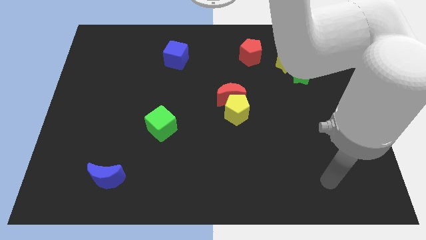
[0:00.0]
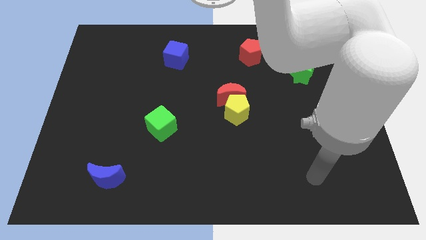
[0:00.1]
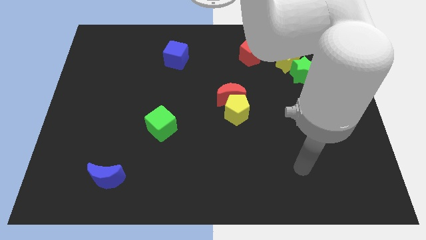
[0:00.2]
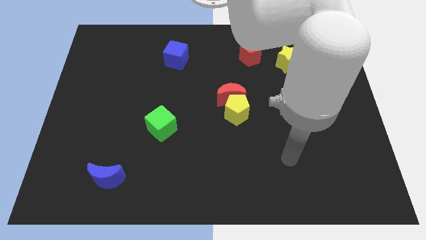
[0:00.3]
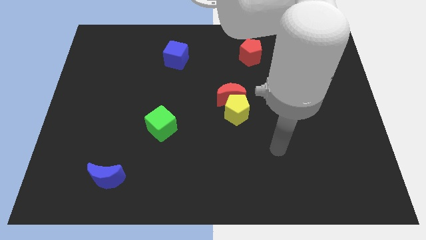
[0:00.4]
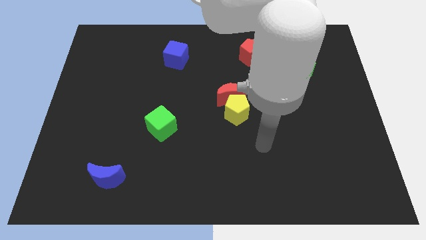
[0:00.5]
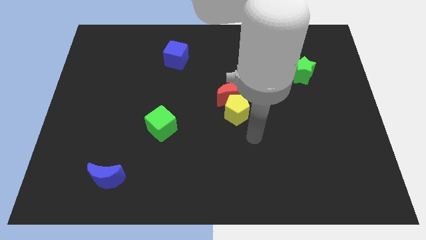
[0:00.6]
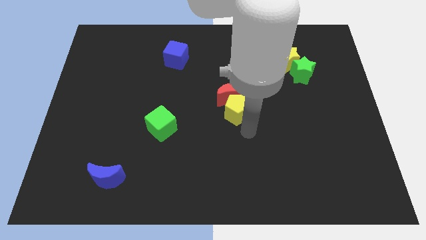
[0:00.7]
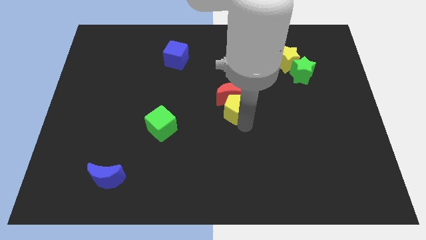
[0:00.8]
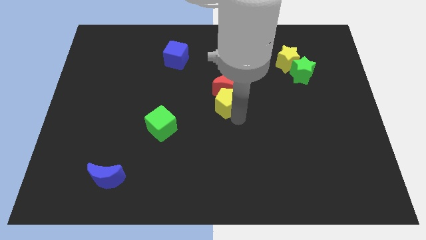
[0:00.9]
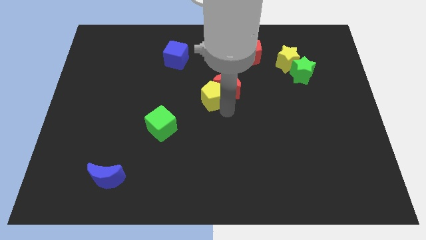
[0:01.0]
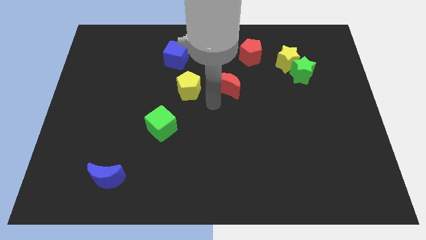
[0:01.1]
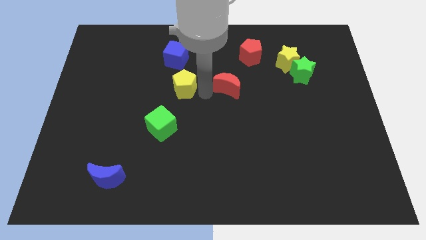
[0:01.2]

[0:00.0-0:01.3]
pull the red moon apart from the yellow pentagon

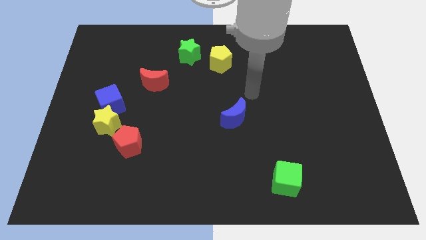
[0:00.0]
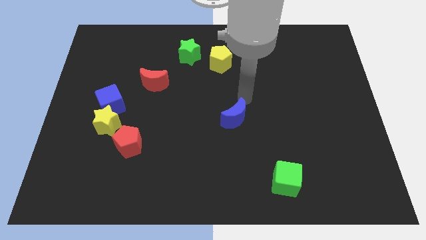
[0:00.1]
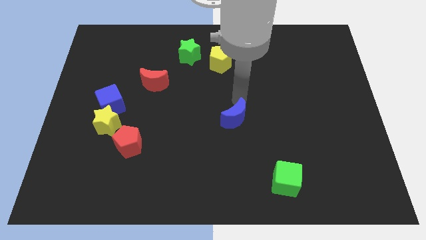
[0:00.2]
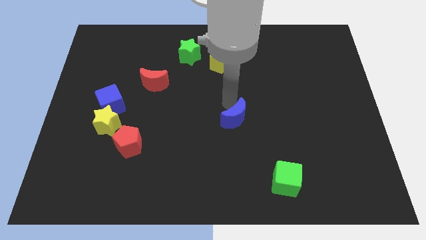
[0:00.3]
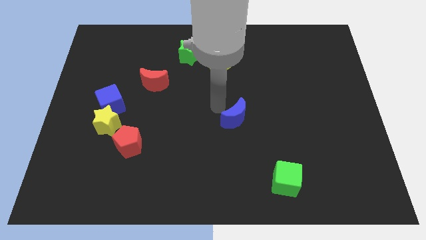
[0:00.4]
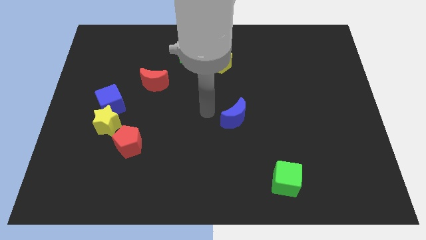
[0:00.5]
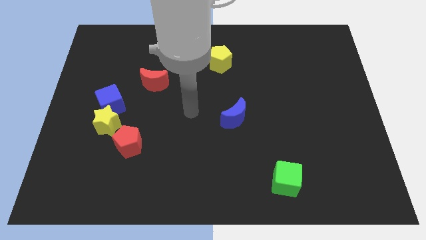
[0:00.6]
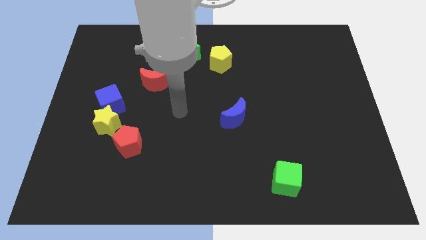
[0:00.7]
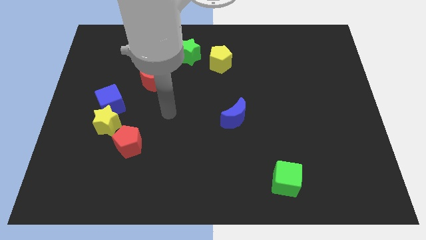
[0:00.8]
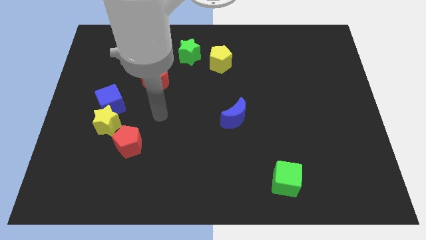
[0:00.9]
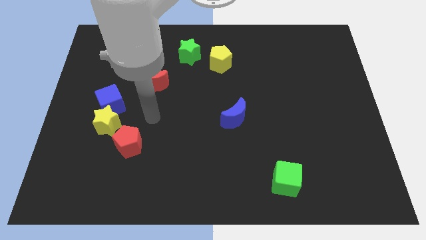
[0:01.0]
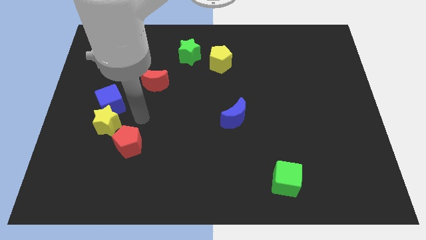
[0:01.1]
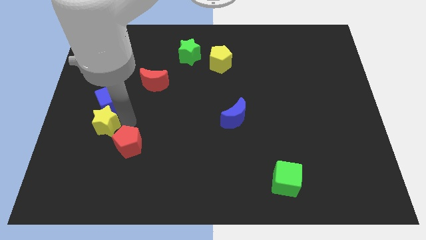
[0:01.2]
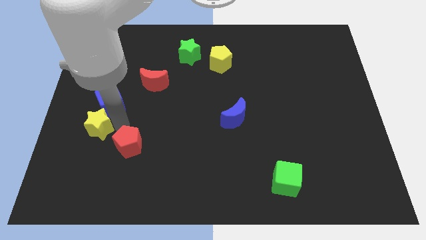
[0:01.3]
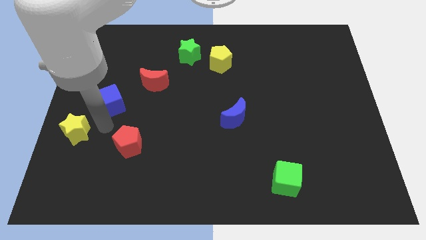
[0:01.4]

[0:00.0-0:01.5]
pull the blue cube apart from the yellow star

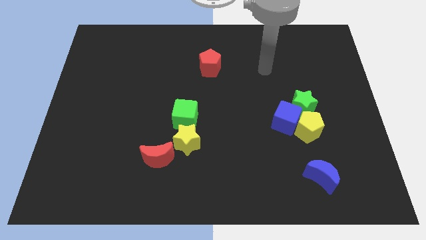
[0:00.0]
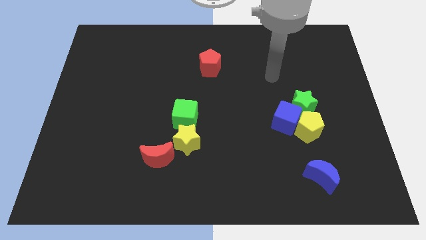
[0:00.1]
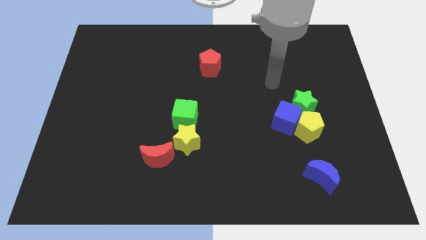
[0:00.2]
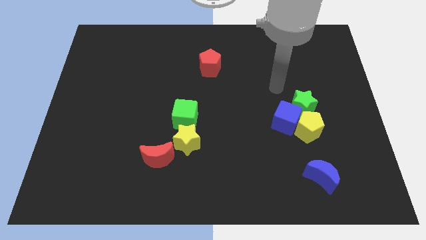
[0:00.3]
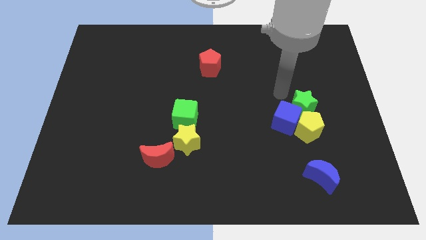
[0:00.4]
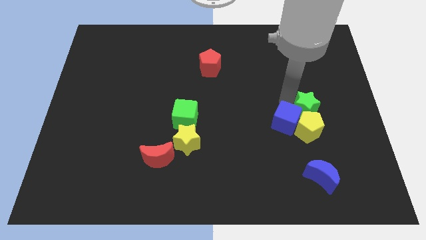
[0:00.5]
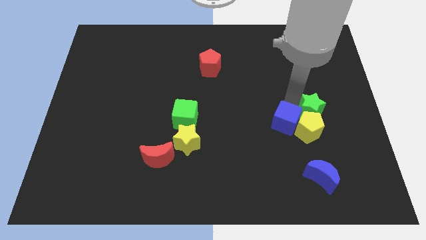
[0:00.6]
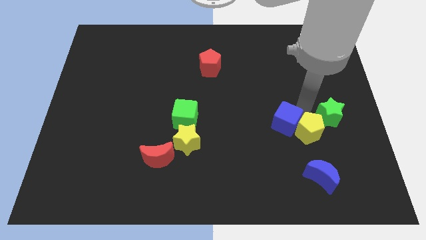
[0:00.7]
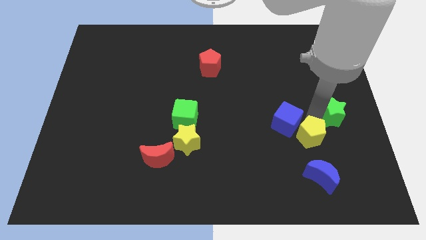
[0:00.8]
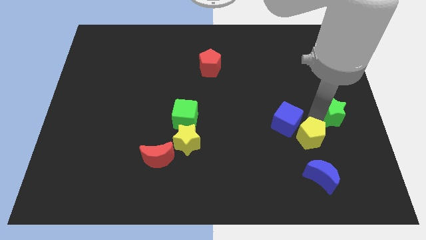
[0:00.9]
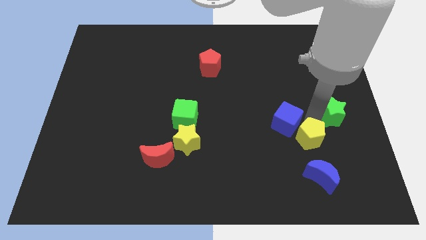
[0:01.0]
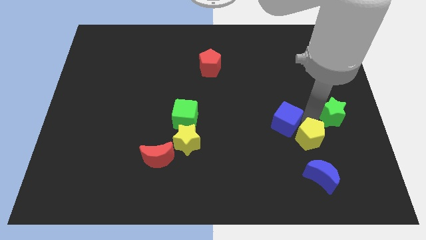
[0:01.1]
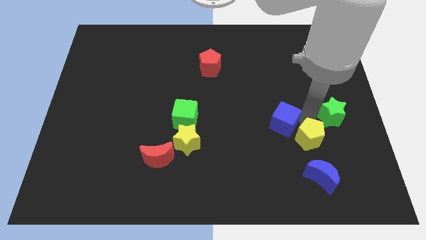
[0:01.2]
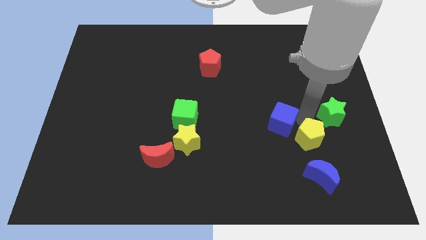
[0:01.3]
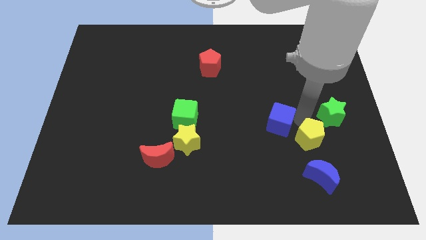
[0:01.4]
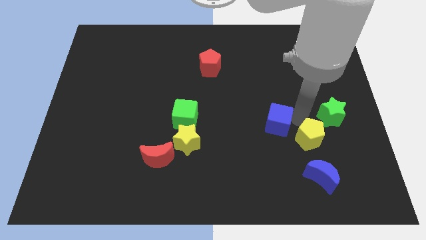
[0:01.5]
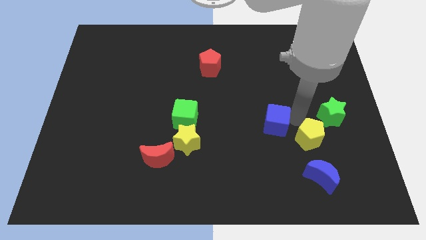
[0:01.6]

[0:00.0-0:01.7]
separate the blue cube from the yellow pentagon and green star

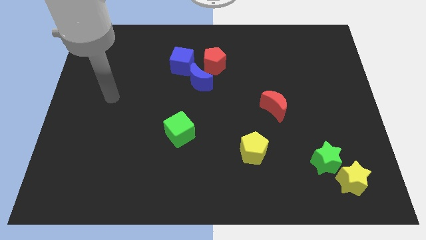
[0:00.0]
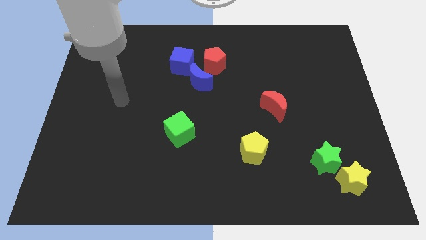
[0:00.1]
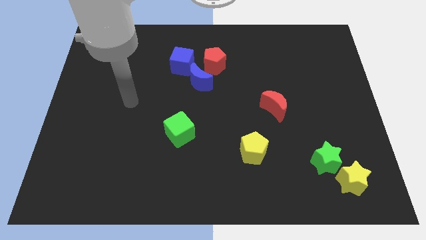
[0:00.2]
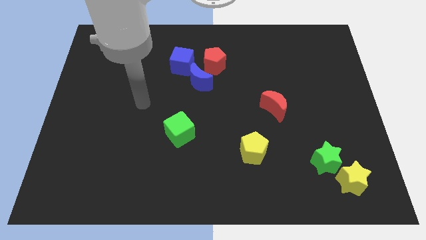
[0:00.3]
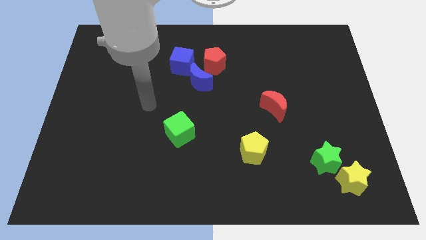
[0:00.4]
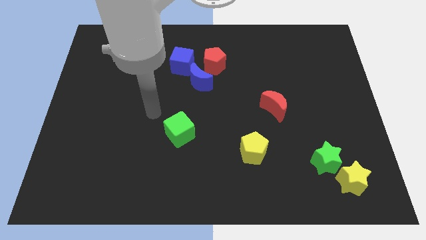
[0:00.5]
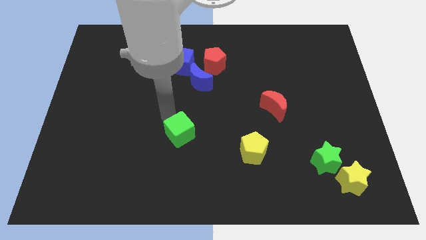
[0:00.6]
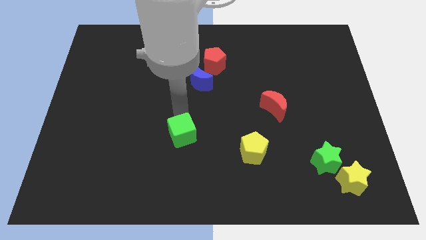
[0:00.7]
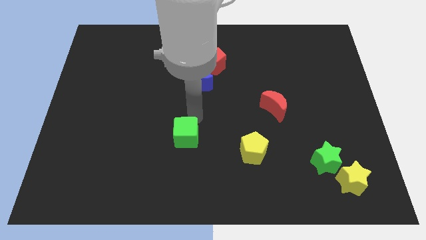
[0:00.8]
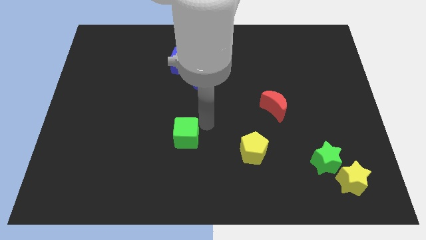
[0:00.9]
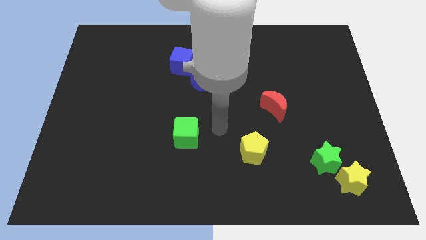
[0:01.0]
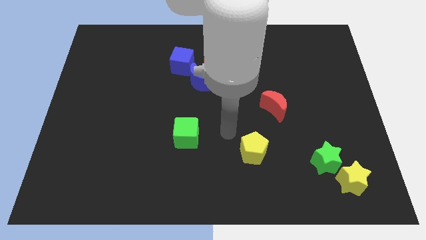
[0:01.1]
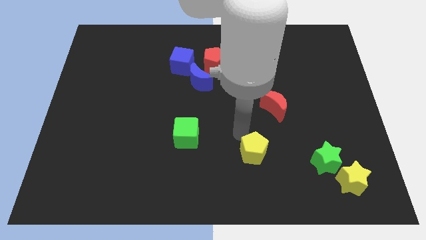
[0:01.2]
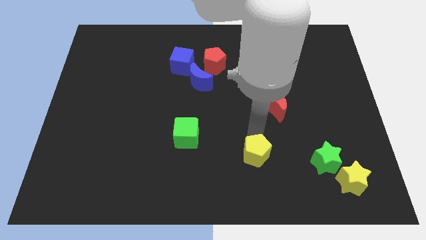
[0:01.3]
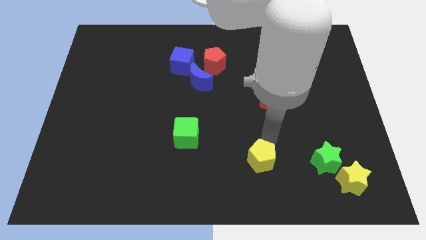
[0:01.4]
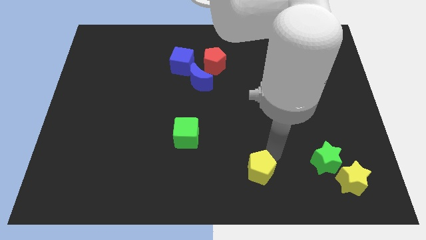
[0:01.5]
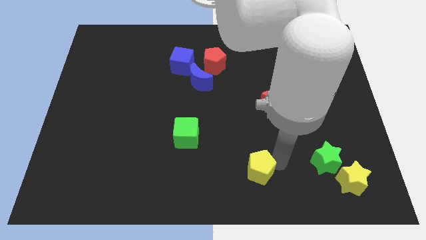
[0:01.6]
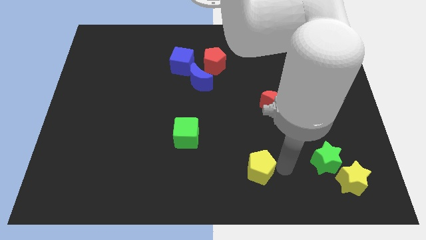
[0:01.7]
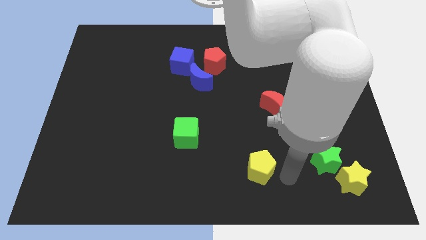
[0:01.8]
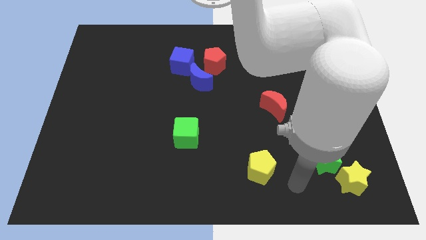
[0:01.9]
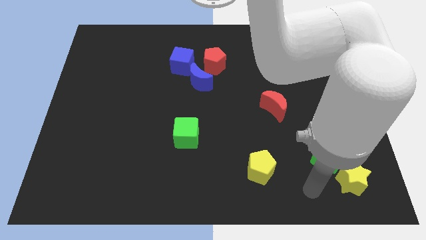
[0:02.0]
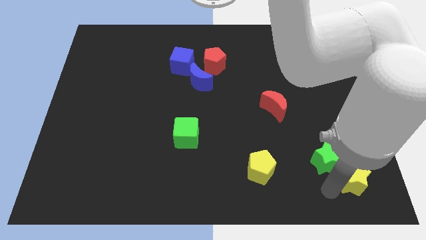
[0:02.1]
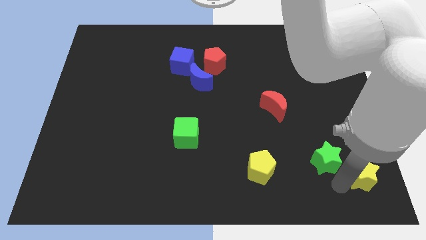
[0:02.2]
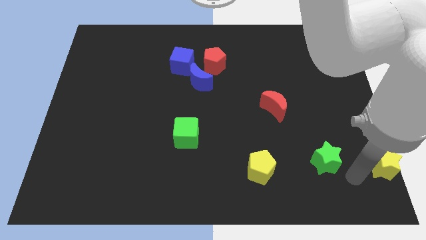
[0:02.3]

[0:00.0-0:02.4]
move the green star away from the yellow star

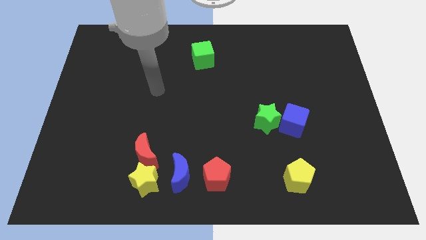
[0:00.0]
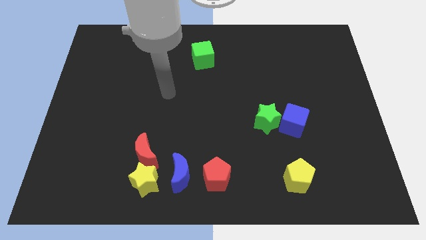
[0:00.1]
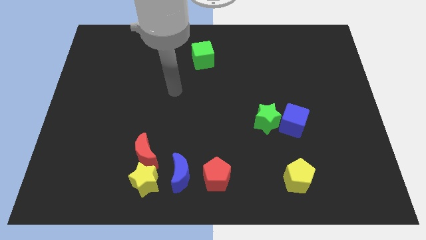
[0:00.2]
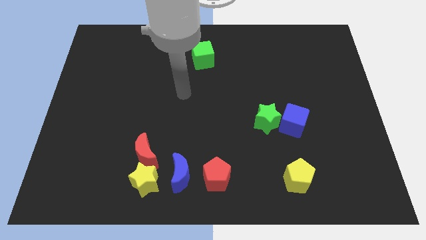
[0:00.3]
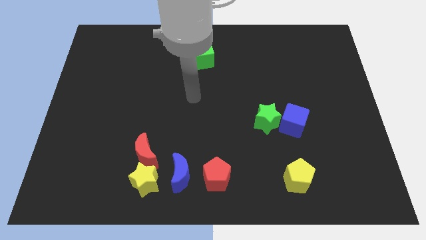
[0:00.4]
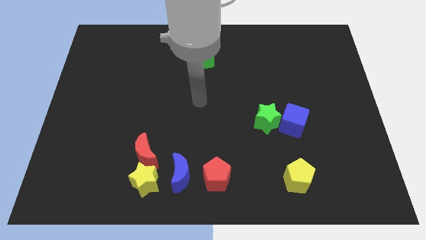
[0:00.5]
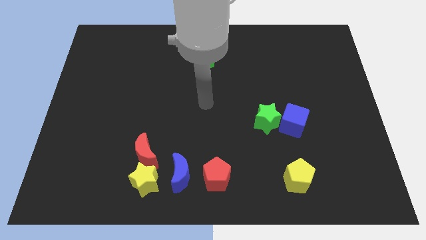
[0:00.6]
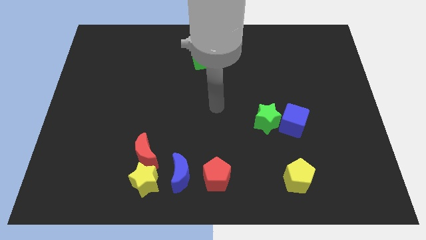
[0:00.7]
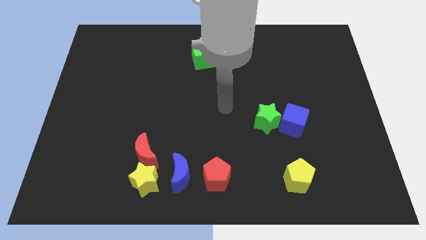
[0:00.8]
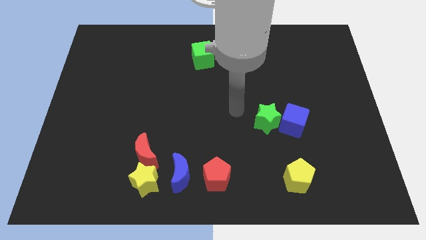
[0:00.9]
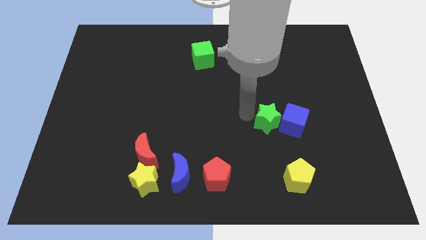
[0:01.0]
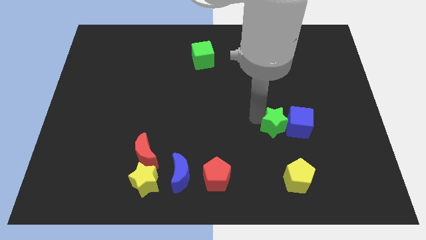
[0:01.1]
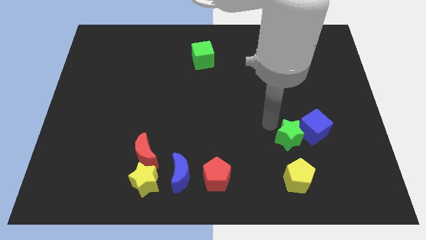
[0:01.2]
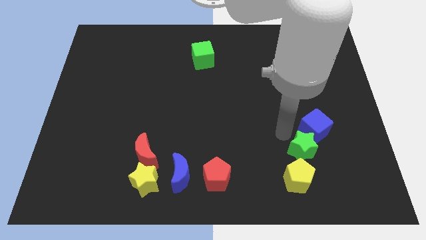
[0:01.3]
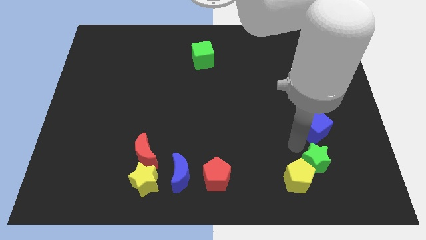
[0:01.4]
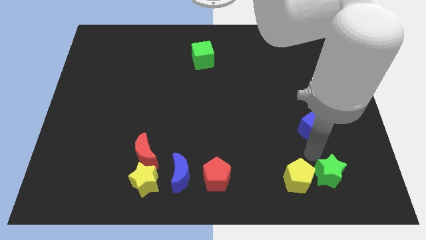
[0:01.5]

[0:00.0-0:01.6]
pull the blue cube apart from the green star

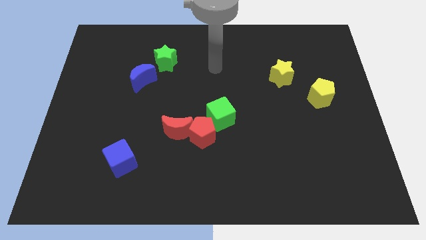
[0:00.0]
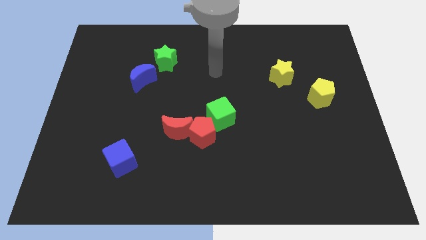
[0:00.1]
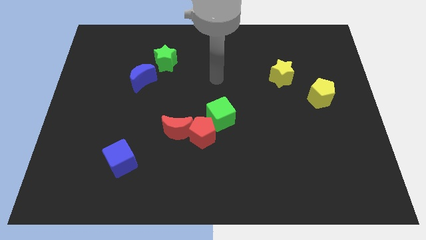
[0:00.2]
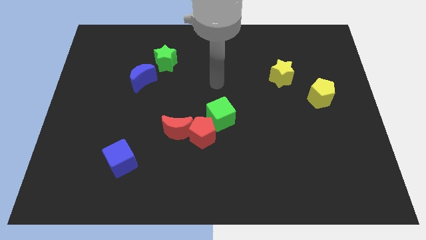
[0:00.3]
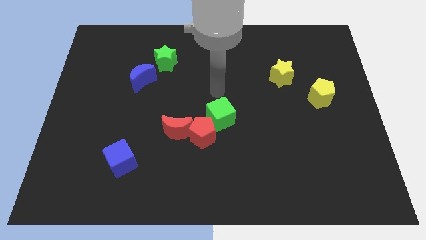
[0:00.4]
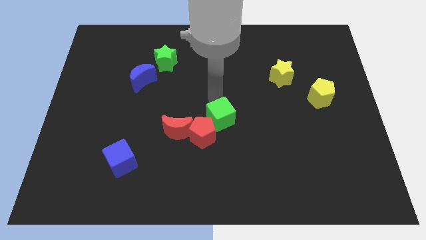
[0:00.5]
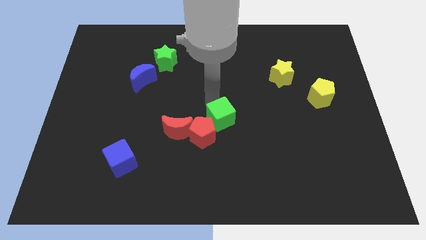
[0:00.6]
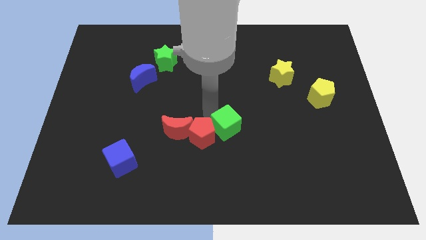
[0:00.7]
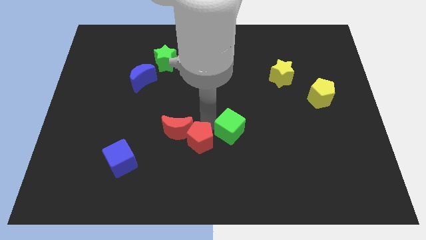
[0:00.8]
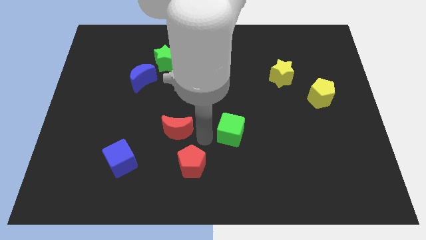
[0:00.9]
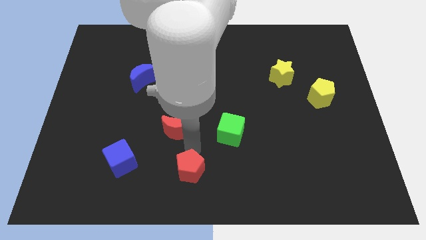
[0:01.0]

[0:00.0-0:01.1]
separate the red moon from the red pentagon
